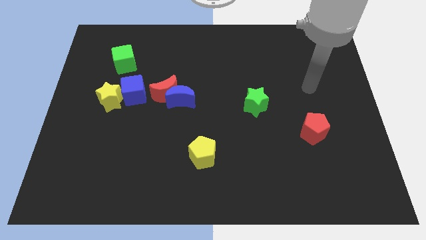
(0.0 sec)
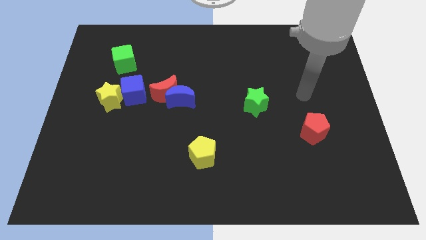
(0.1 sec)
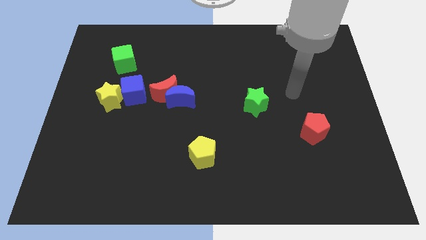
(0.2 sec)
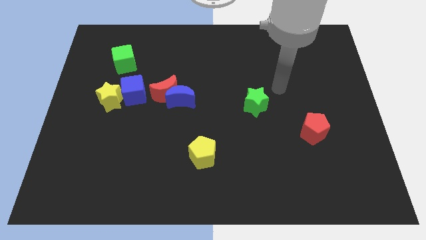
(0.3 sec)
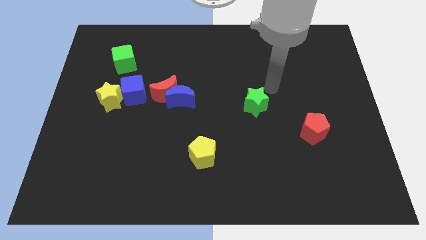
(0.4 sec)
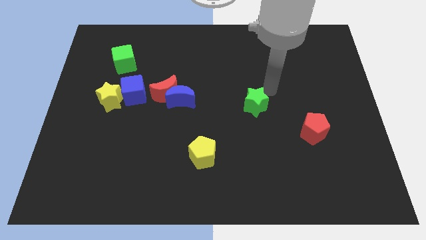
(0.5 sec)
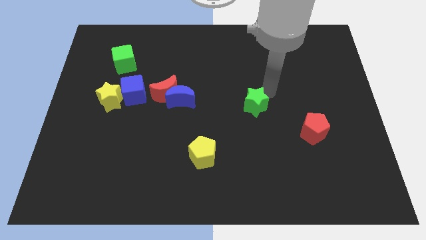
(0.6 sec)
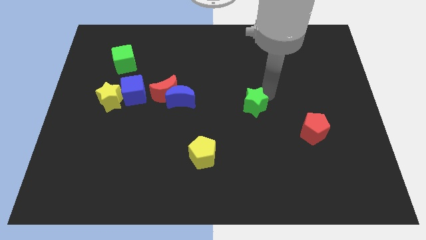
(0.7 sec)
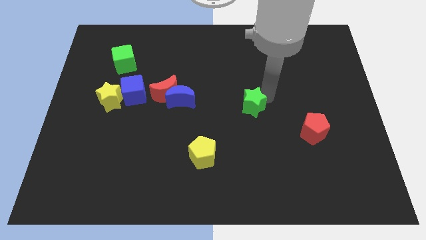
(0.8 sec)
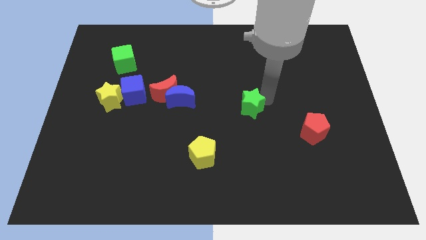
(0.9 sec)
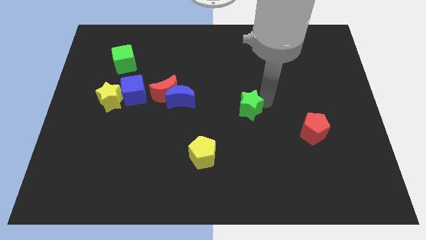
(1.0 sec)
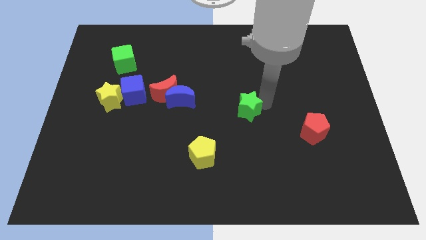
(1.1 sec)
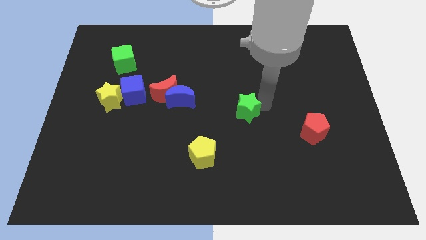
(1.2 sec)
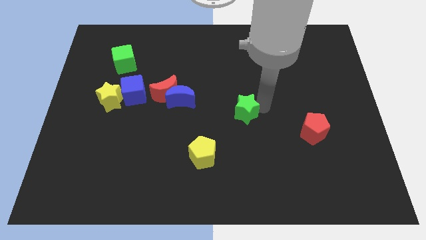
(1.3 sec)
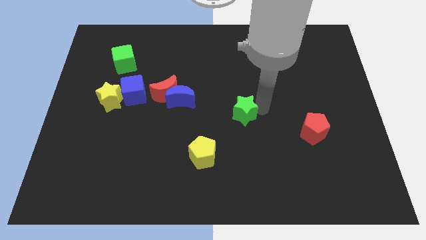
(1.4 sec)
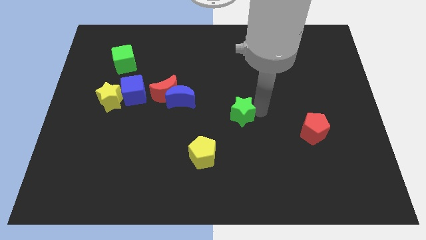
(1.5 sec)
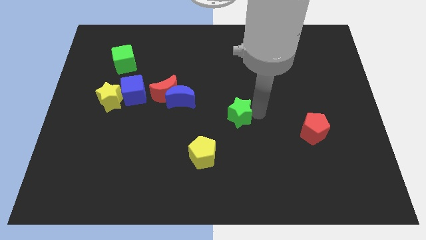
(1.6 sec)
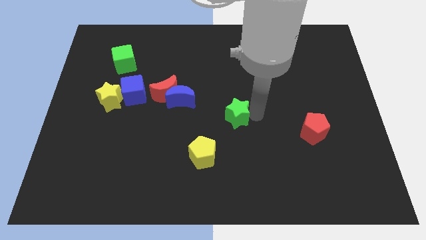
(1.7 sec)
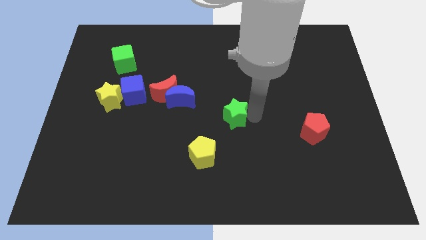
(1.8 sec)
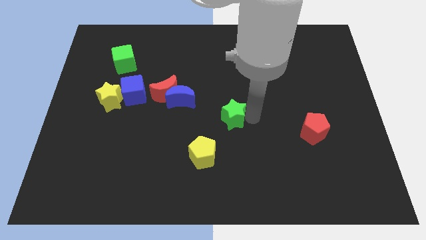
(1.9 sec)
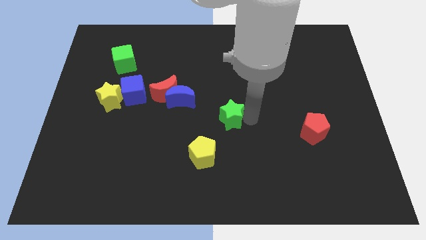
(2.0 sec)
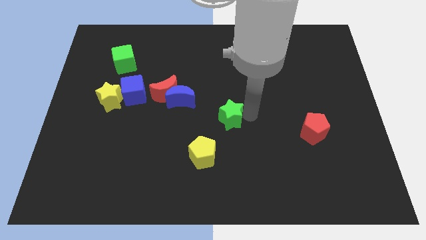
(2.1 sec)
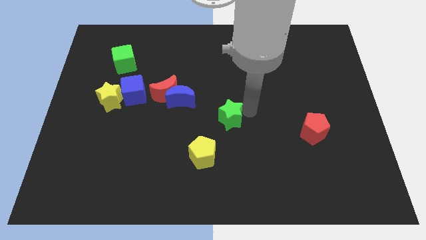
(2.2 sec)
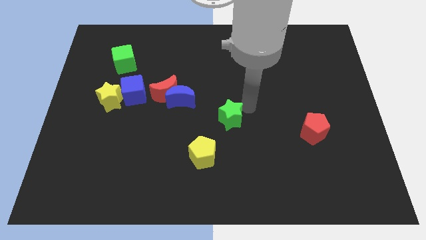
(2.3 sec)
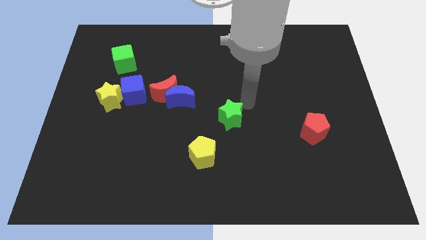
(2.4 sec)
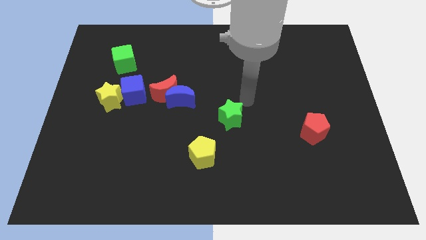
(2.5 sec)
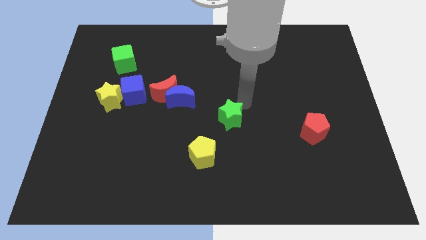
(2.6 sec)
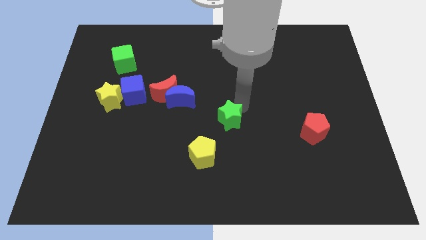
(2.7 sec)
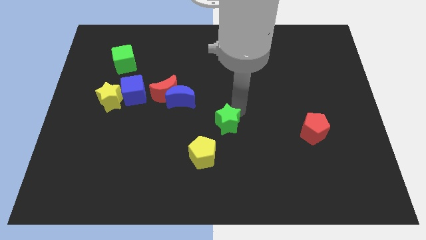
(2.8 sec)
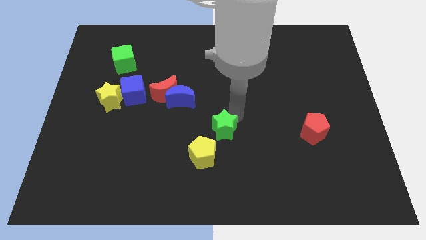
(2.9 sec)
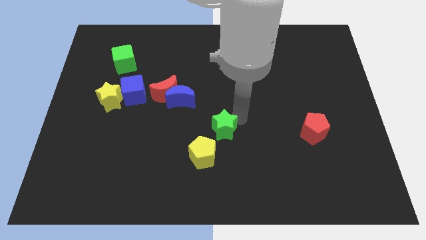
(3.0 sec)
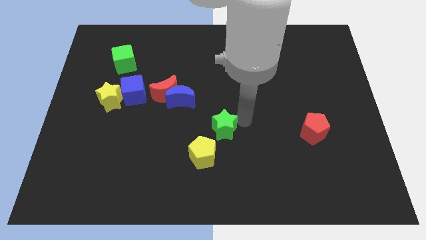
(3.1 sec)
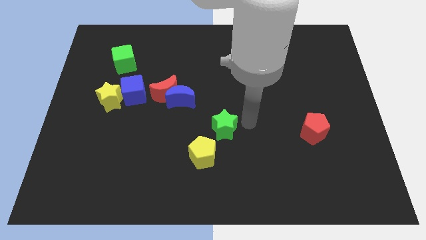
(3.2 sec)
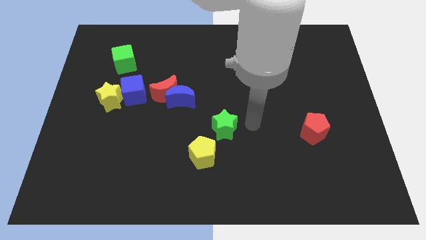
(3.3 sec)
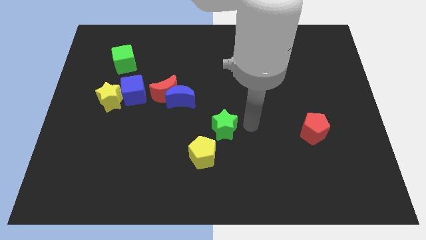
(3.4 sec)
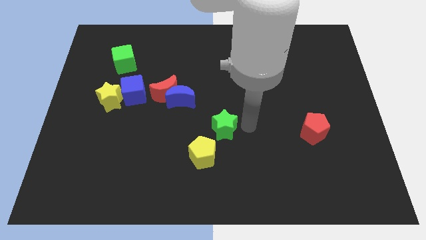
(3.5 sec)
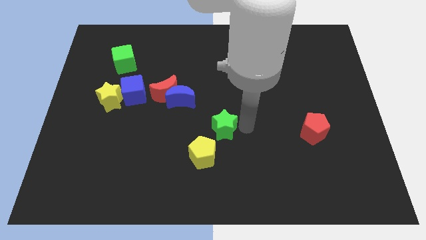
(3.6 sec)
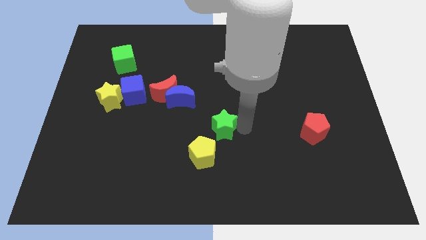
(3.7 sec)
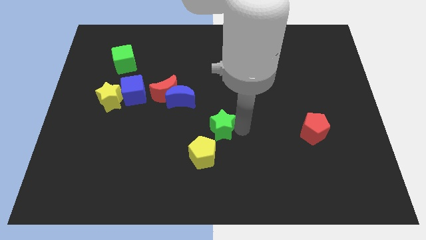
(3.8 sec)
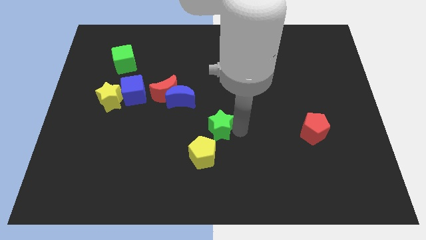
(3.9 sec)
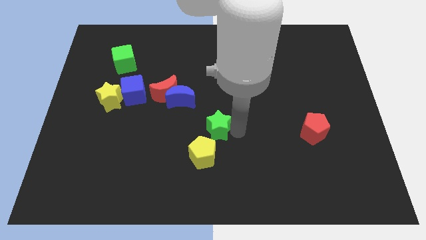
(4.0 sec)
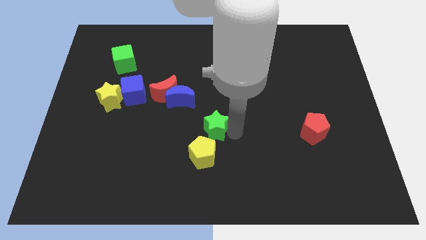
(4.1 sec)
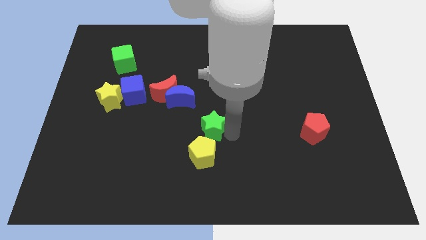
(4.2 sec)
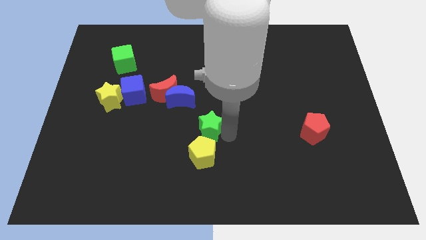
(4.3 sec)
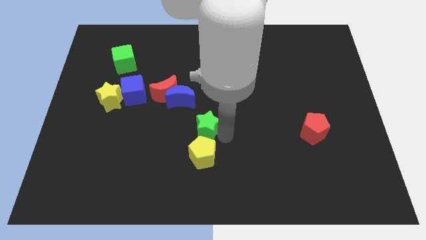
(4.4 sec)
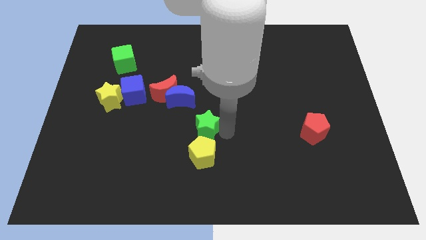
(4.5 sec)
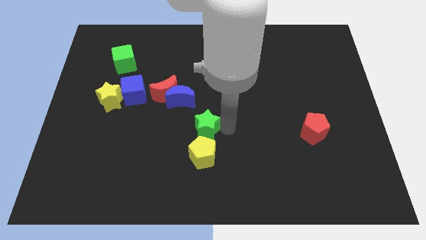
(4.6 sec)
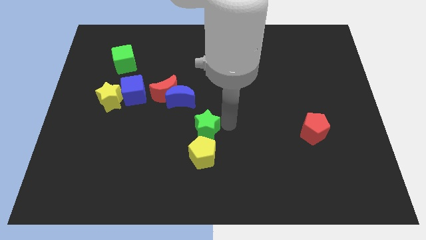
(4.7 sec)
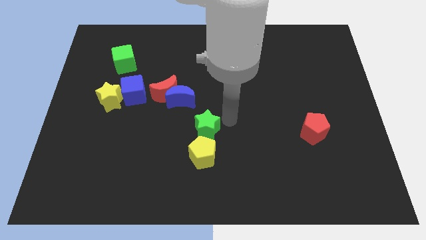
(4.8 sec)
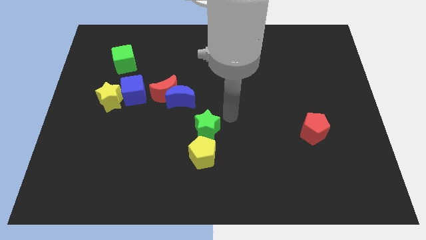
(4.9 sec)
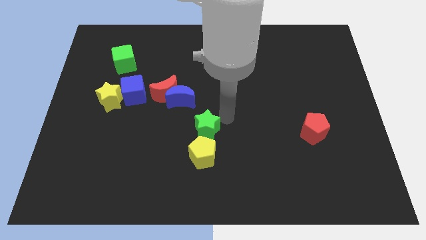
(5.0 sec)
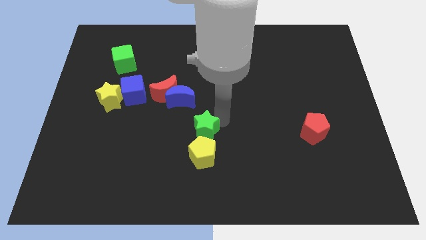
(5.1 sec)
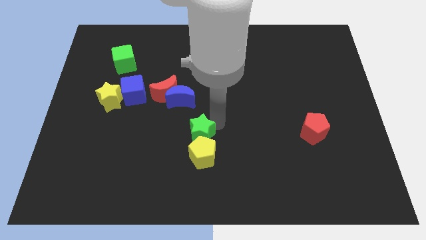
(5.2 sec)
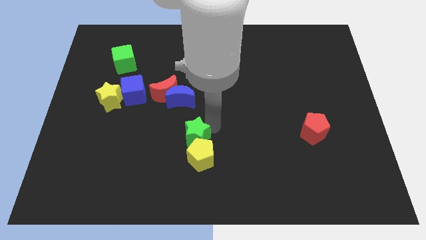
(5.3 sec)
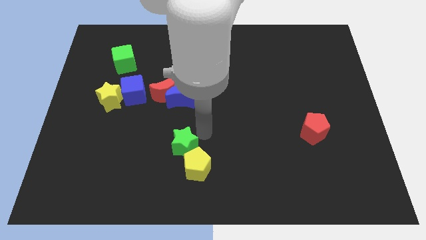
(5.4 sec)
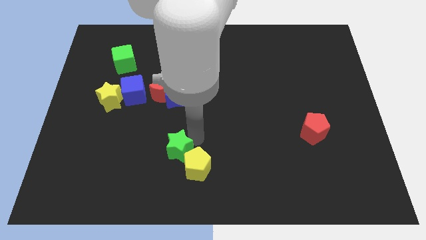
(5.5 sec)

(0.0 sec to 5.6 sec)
slide the green star just left of the yellow pentagon

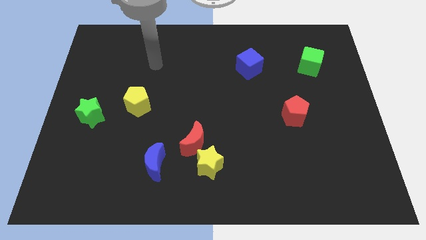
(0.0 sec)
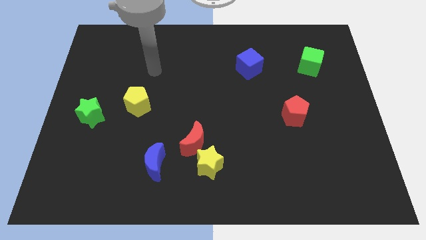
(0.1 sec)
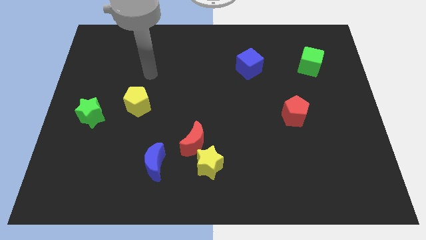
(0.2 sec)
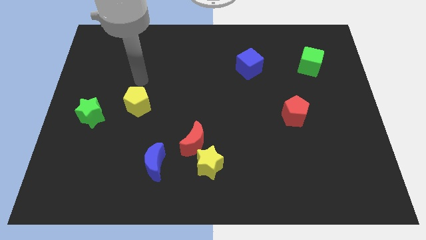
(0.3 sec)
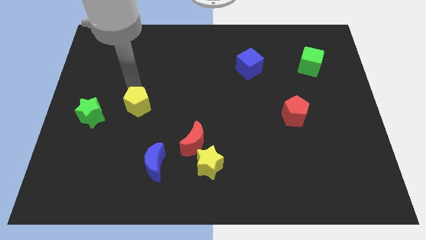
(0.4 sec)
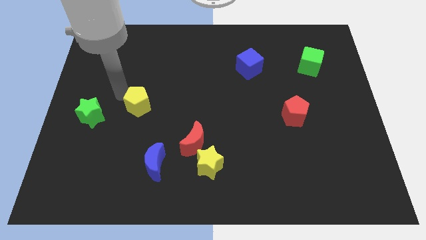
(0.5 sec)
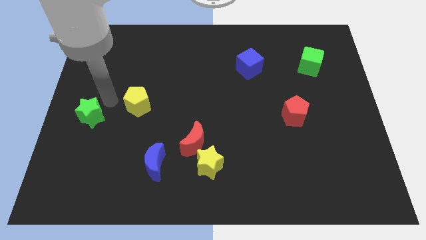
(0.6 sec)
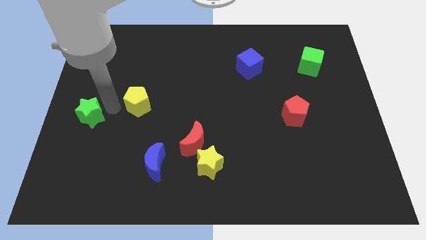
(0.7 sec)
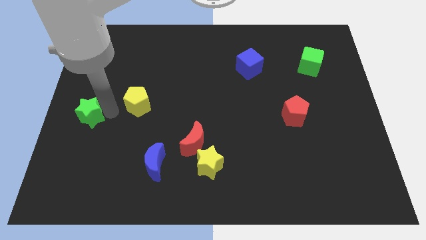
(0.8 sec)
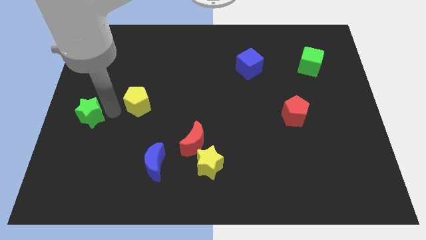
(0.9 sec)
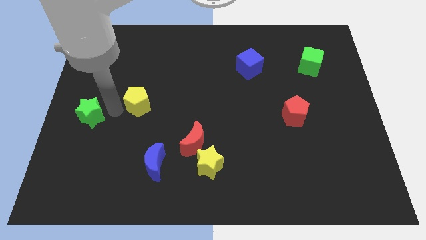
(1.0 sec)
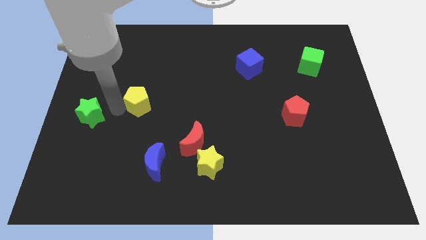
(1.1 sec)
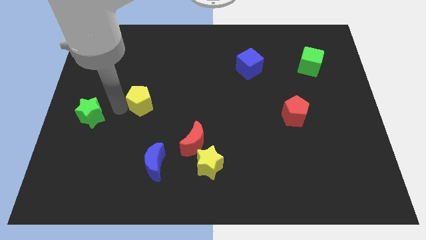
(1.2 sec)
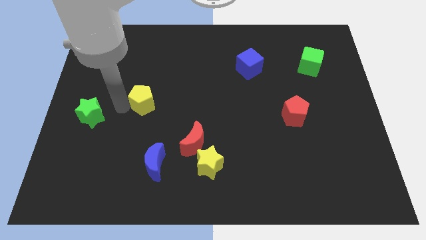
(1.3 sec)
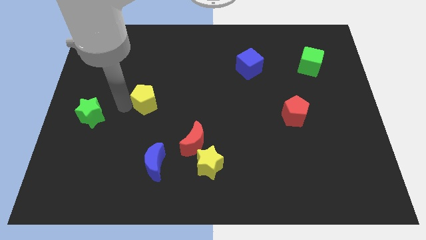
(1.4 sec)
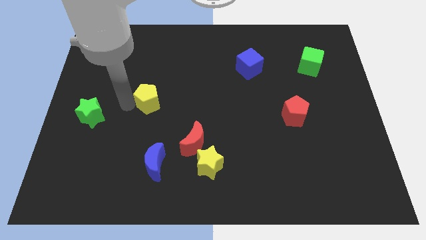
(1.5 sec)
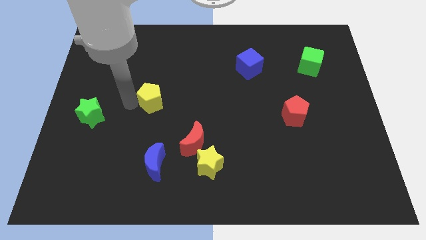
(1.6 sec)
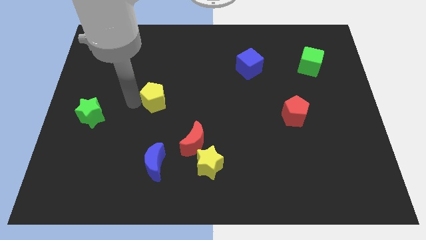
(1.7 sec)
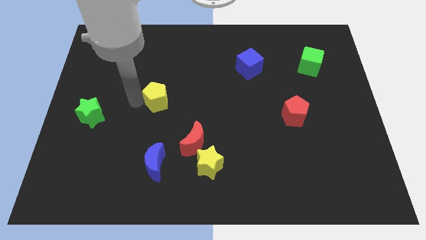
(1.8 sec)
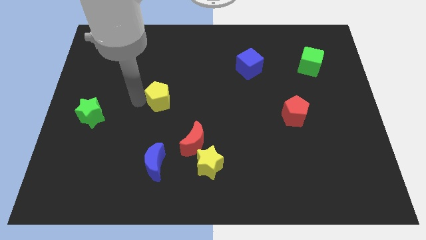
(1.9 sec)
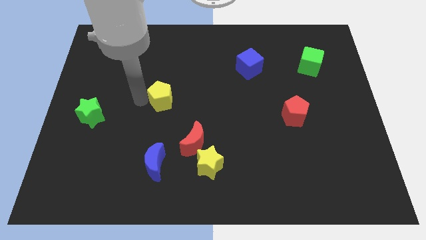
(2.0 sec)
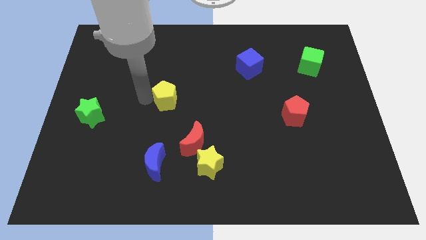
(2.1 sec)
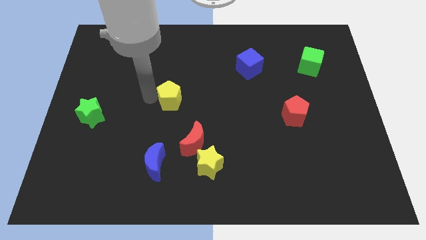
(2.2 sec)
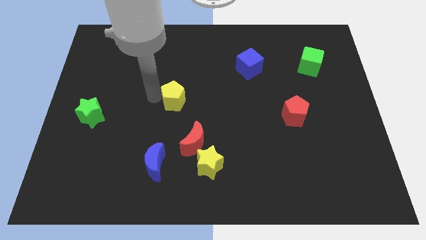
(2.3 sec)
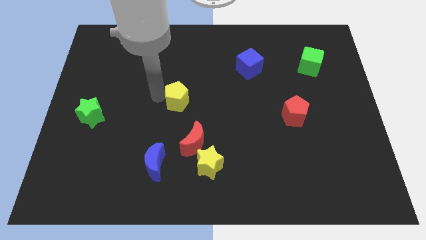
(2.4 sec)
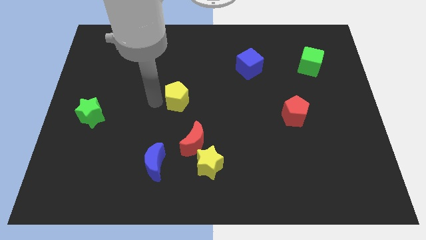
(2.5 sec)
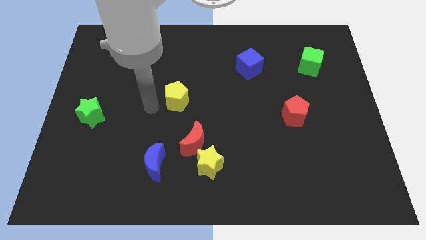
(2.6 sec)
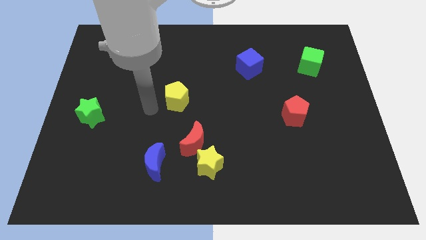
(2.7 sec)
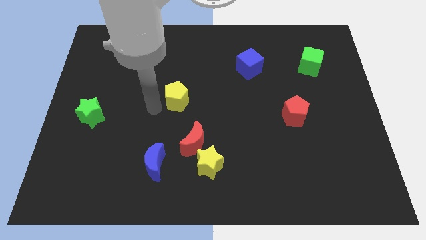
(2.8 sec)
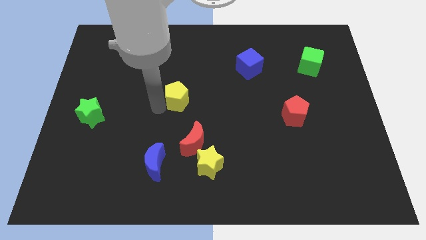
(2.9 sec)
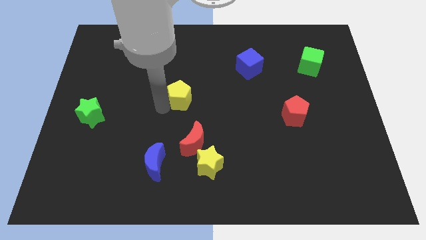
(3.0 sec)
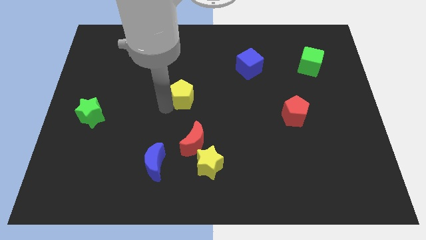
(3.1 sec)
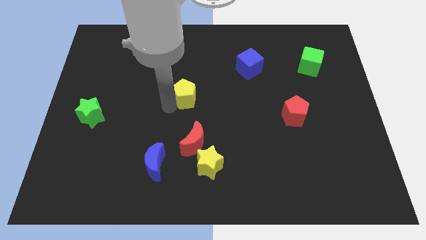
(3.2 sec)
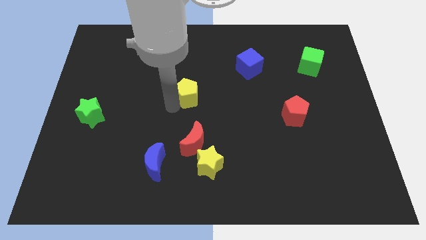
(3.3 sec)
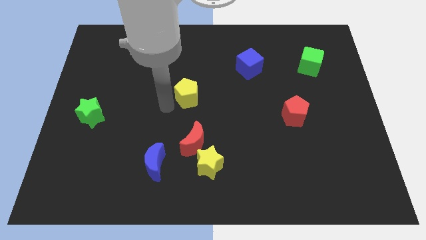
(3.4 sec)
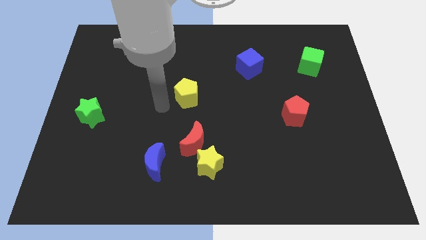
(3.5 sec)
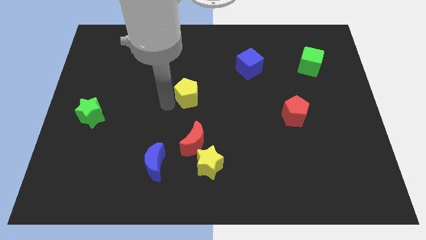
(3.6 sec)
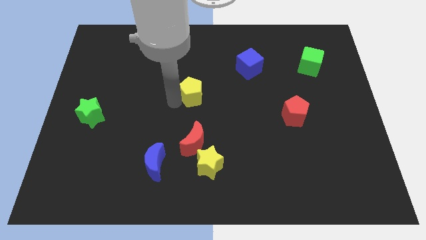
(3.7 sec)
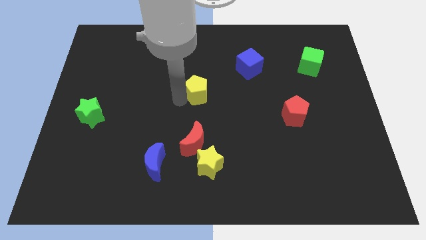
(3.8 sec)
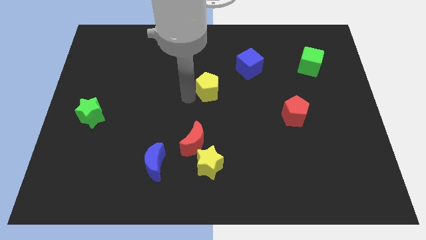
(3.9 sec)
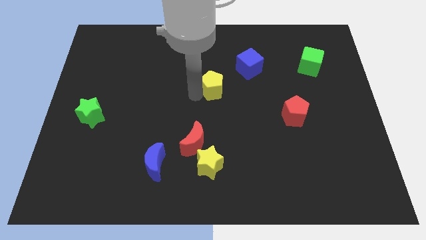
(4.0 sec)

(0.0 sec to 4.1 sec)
push the yellow pentagon to the bottom left side of the blue cube
